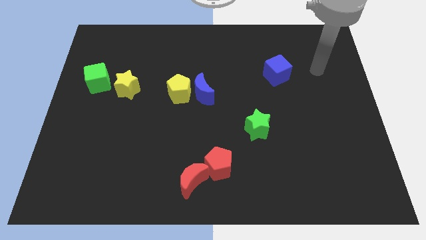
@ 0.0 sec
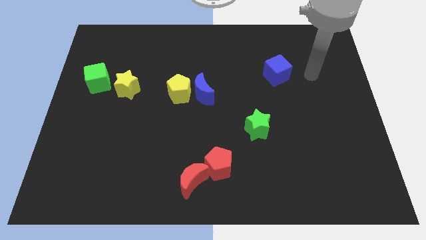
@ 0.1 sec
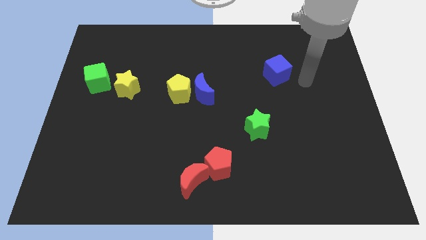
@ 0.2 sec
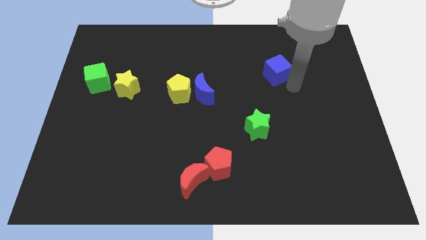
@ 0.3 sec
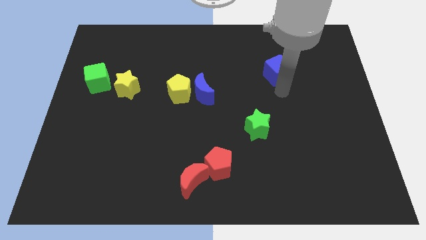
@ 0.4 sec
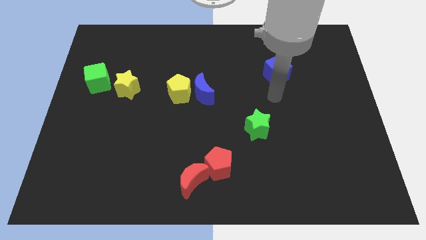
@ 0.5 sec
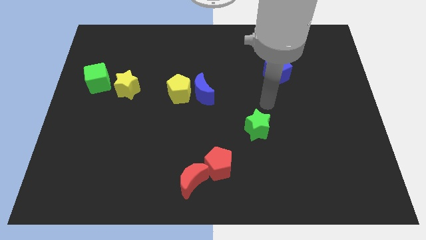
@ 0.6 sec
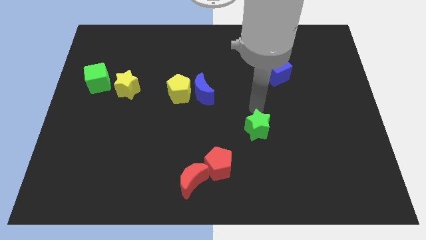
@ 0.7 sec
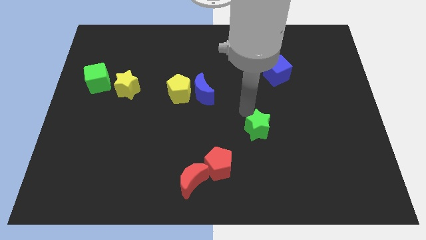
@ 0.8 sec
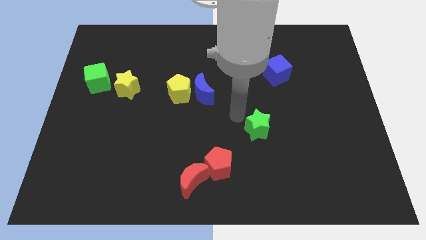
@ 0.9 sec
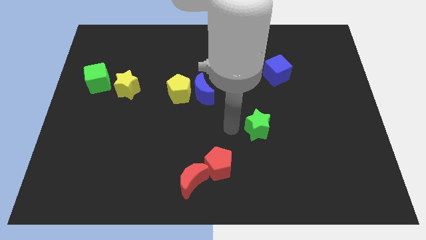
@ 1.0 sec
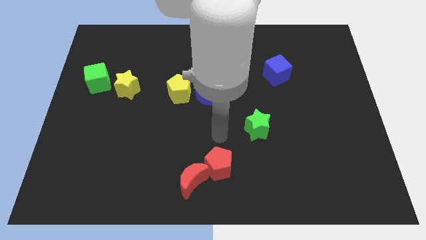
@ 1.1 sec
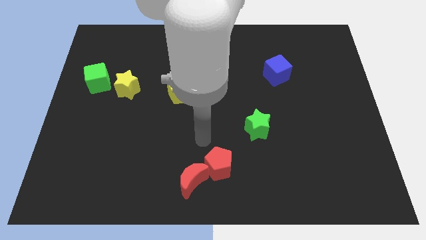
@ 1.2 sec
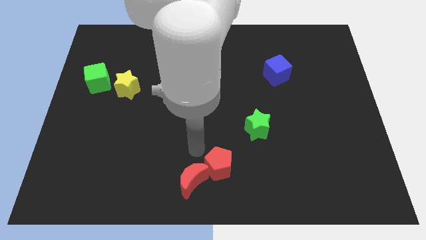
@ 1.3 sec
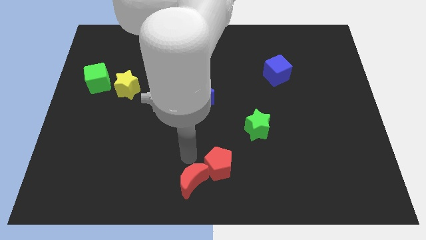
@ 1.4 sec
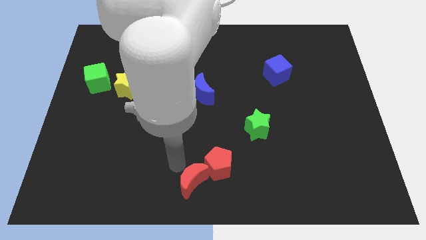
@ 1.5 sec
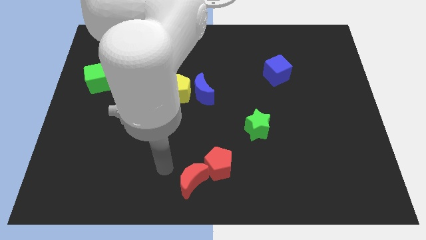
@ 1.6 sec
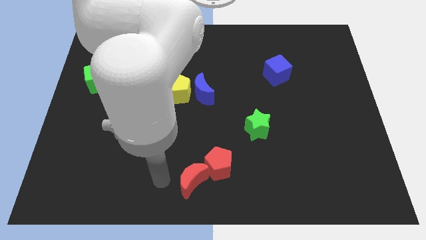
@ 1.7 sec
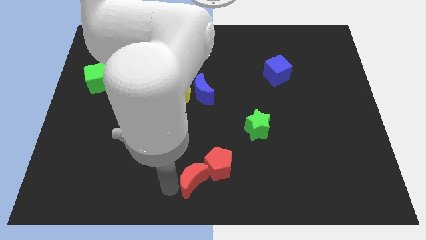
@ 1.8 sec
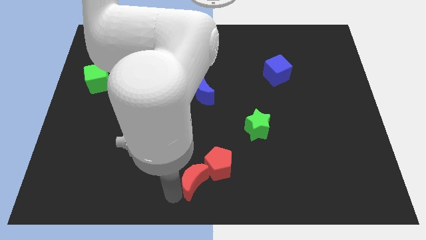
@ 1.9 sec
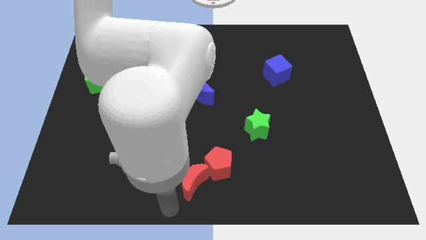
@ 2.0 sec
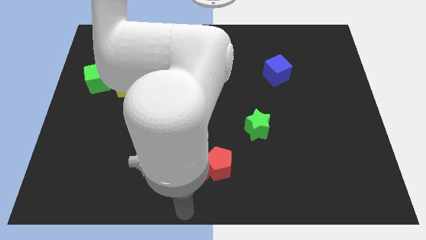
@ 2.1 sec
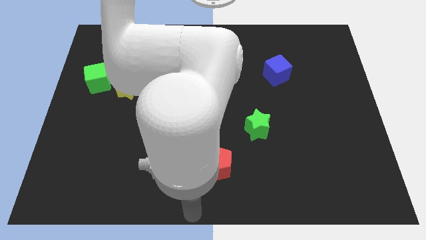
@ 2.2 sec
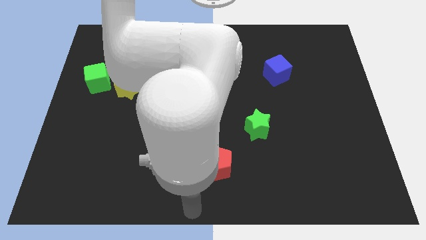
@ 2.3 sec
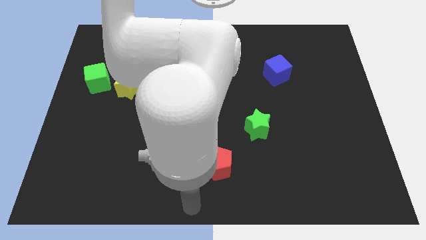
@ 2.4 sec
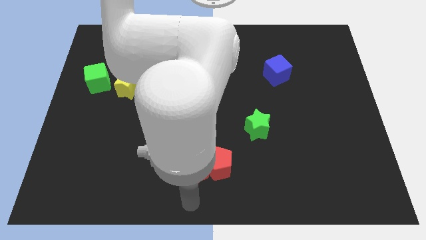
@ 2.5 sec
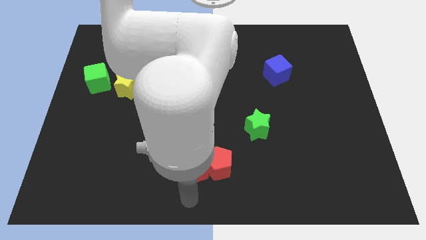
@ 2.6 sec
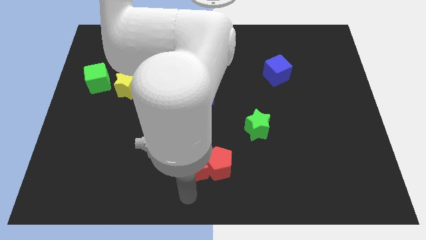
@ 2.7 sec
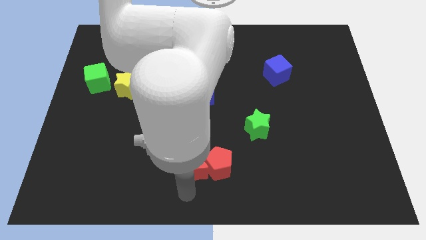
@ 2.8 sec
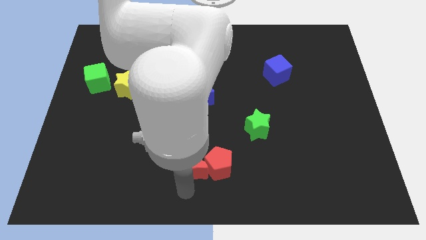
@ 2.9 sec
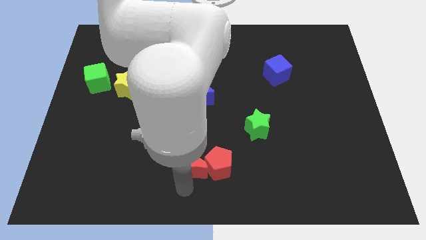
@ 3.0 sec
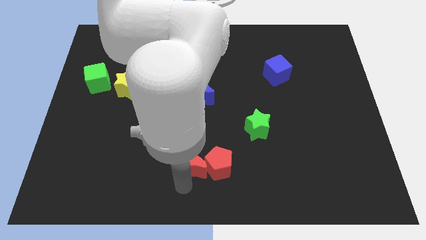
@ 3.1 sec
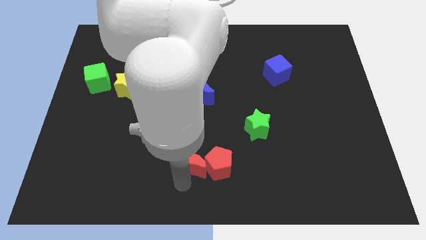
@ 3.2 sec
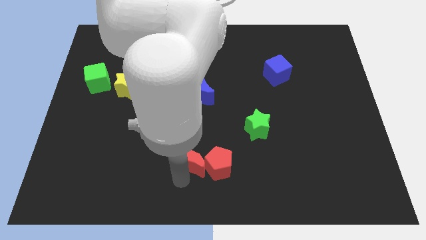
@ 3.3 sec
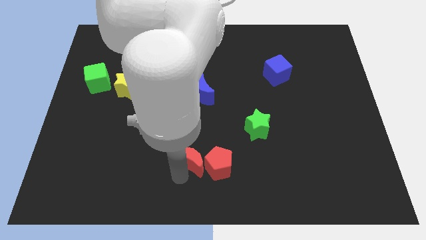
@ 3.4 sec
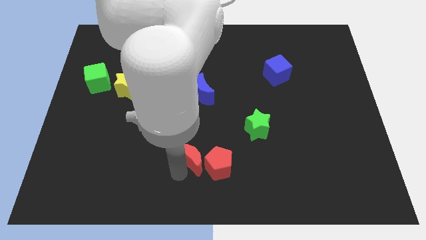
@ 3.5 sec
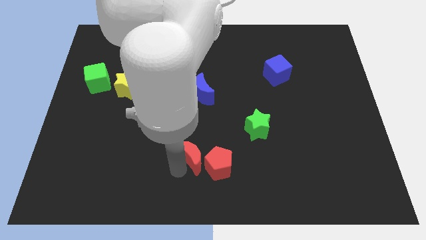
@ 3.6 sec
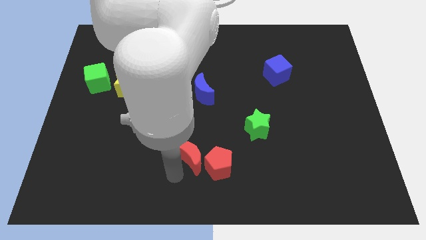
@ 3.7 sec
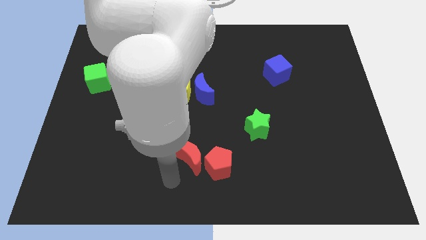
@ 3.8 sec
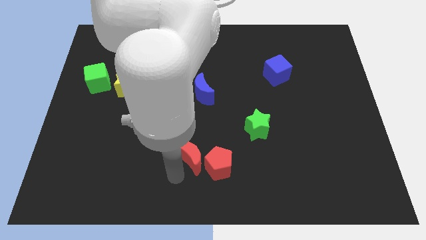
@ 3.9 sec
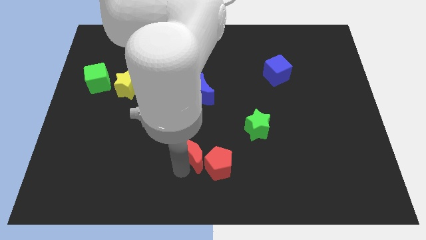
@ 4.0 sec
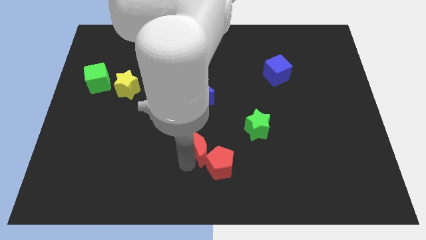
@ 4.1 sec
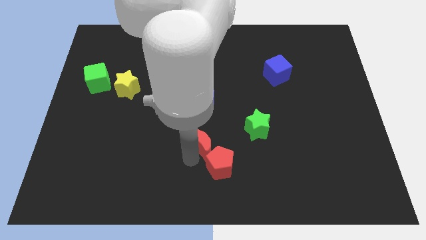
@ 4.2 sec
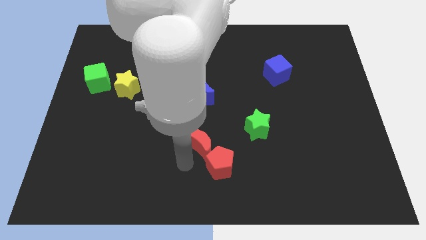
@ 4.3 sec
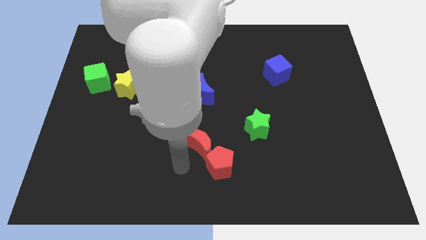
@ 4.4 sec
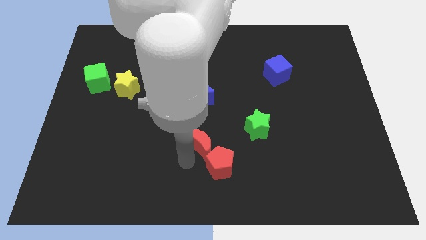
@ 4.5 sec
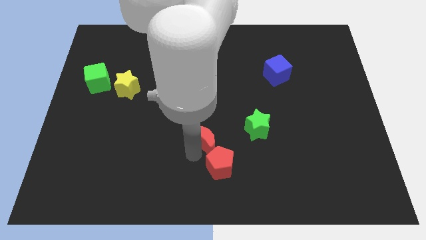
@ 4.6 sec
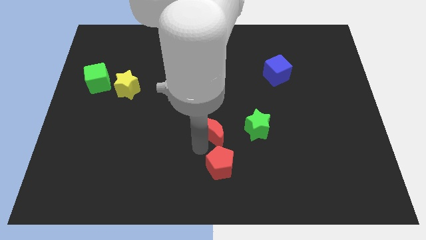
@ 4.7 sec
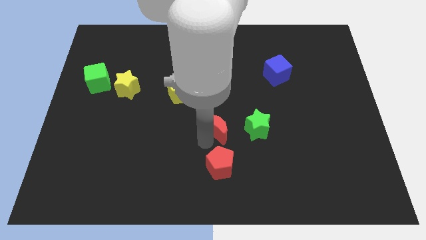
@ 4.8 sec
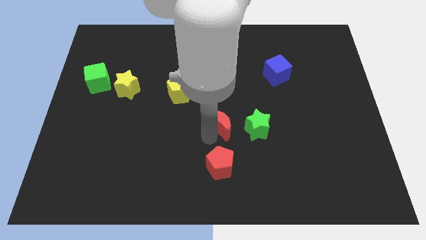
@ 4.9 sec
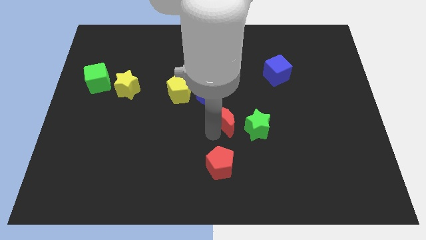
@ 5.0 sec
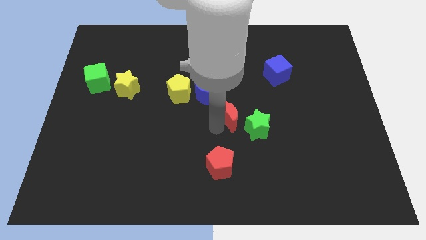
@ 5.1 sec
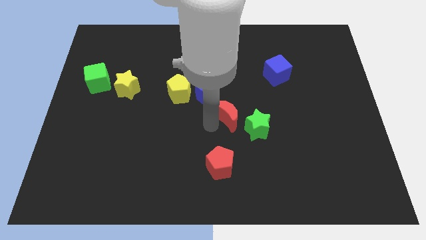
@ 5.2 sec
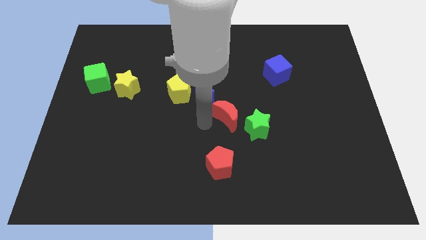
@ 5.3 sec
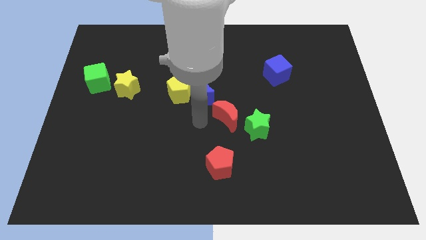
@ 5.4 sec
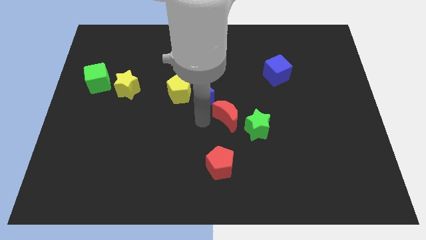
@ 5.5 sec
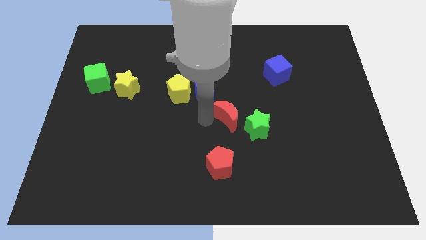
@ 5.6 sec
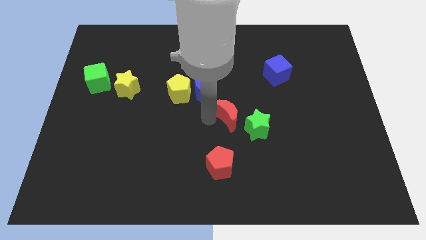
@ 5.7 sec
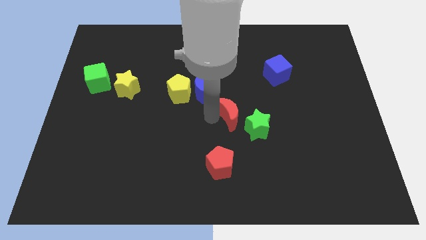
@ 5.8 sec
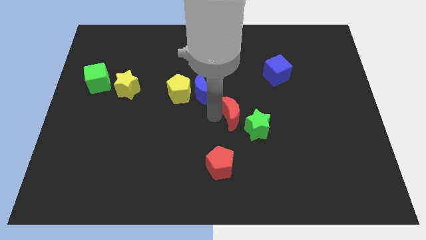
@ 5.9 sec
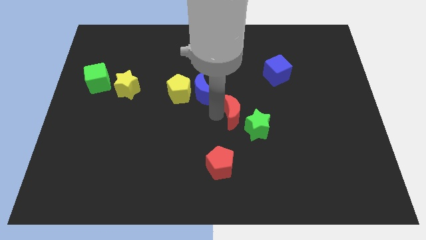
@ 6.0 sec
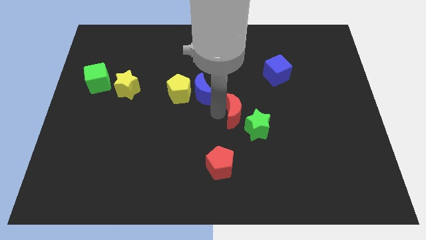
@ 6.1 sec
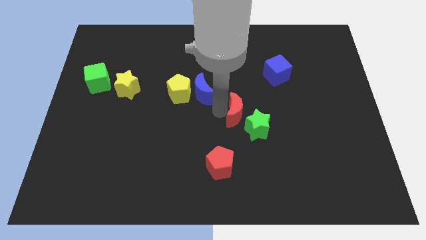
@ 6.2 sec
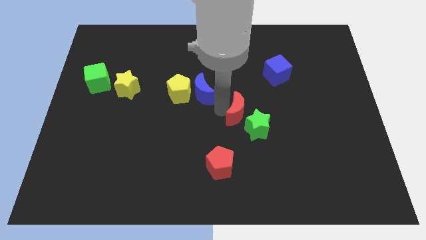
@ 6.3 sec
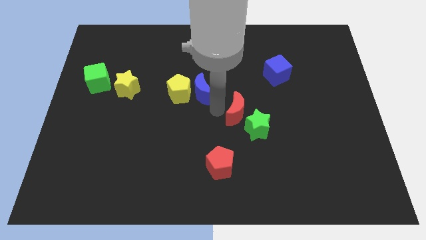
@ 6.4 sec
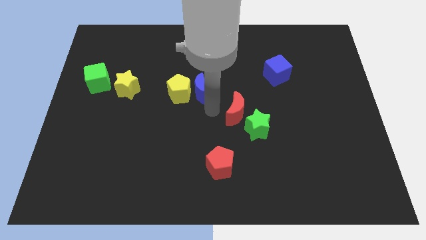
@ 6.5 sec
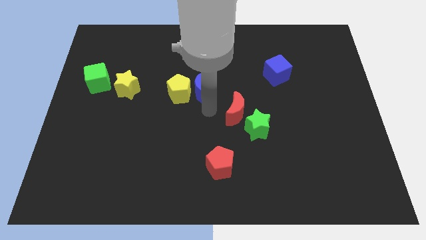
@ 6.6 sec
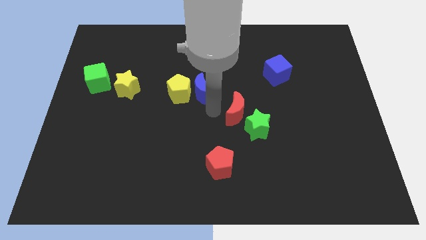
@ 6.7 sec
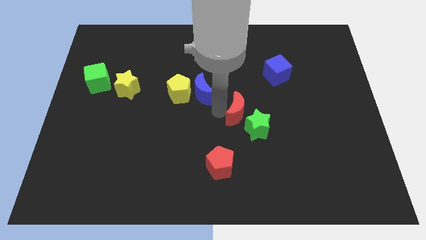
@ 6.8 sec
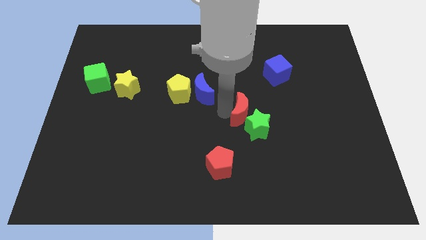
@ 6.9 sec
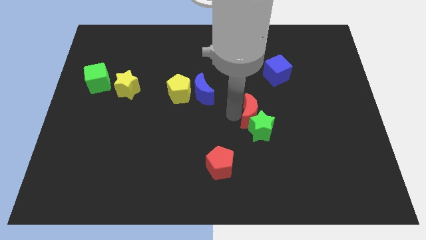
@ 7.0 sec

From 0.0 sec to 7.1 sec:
slide the red moon up and right diagonally

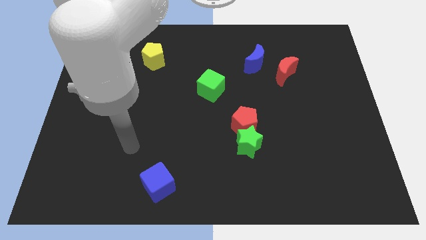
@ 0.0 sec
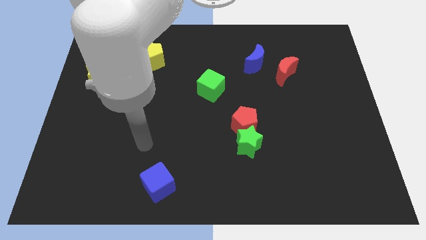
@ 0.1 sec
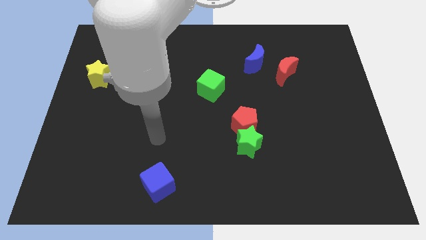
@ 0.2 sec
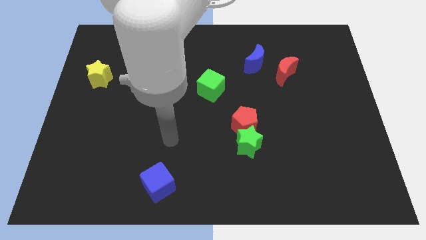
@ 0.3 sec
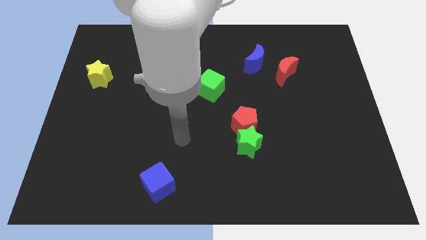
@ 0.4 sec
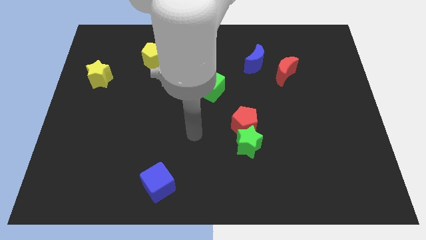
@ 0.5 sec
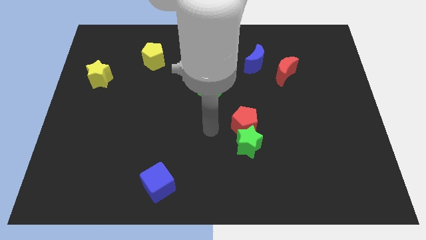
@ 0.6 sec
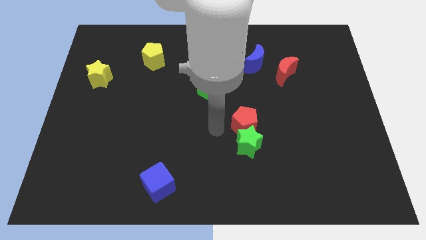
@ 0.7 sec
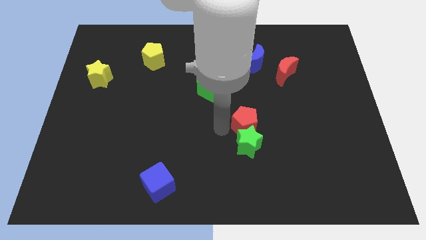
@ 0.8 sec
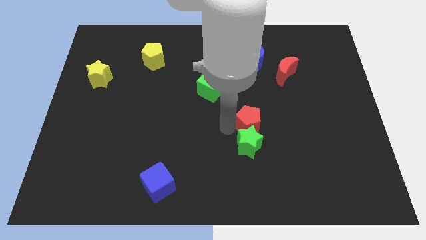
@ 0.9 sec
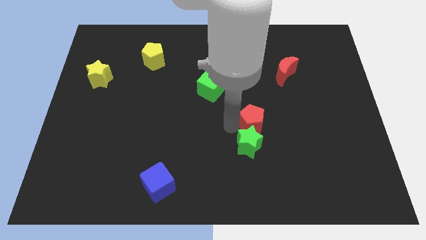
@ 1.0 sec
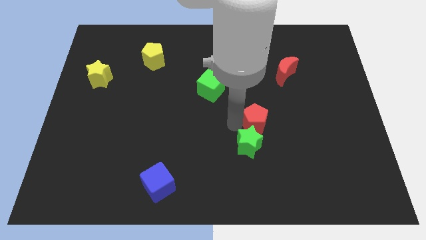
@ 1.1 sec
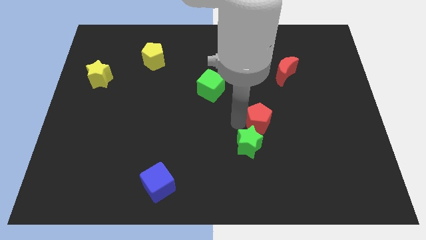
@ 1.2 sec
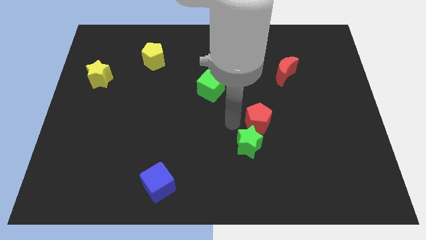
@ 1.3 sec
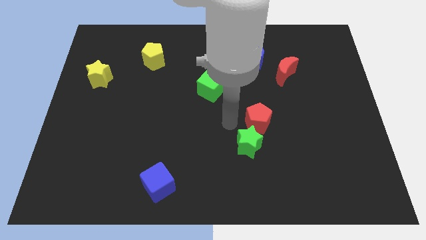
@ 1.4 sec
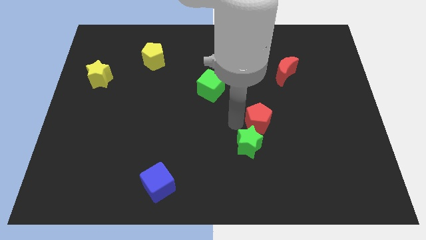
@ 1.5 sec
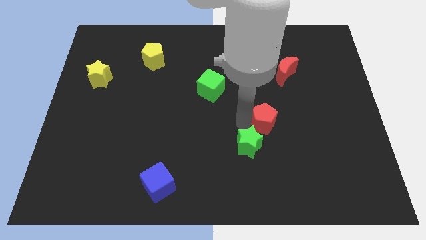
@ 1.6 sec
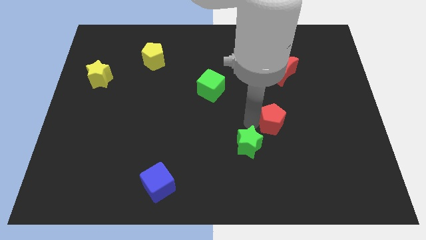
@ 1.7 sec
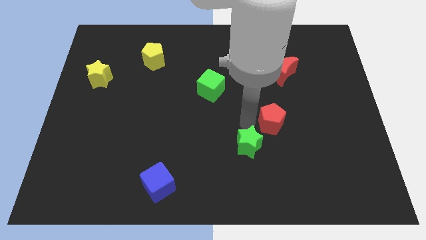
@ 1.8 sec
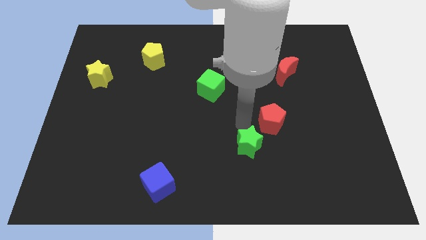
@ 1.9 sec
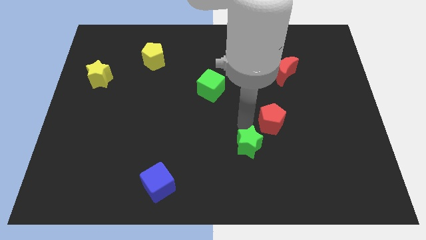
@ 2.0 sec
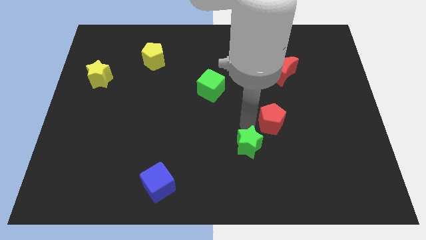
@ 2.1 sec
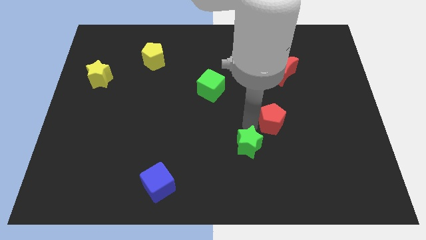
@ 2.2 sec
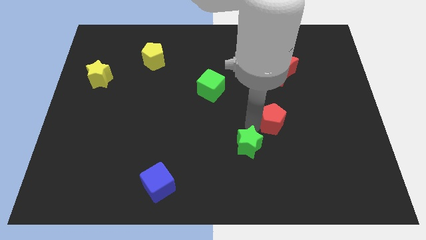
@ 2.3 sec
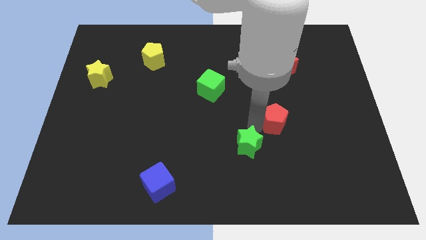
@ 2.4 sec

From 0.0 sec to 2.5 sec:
slide the red pentagon slightly right
